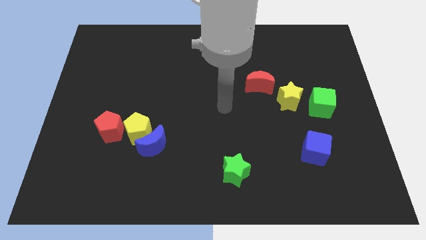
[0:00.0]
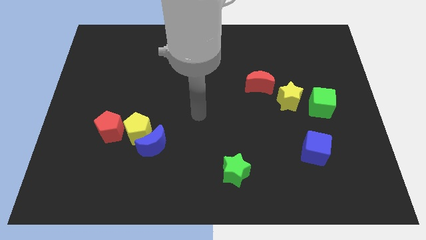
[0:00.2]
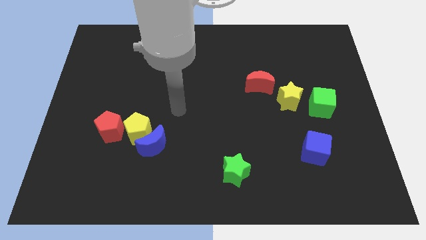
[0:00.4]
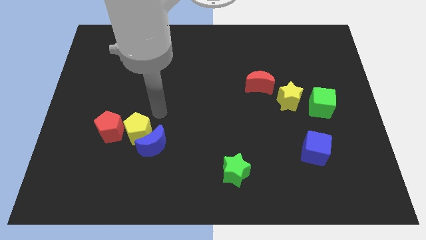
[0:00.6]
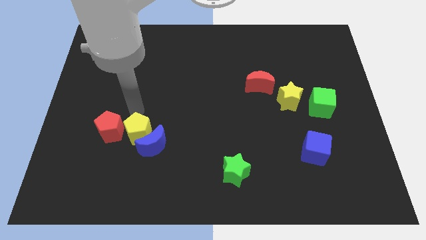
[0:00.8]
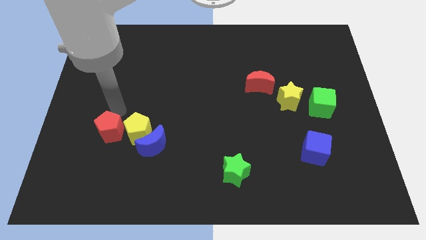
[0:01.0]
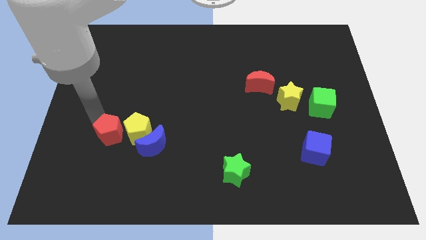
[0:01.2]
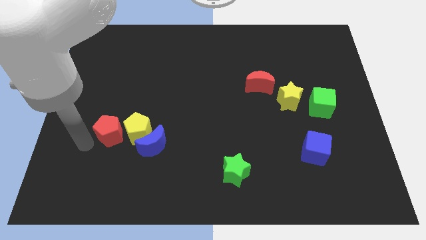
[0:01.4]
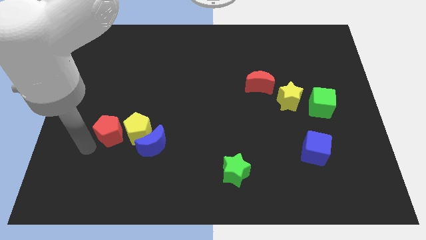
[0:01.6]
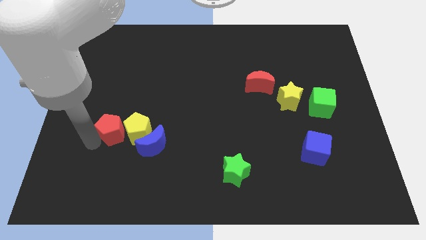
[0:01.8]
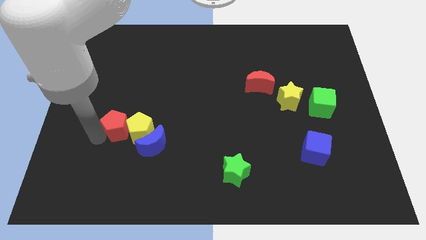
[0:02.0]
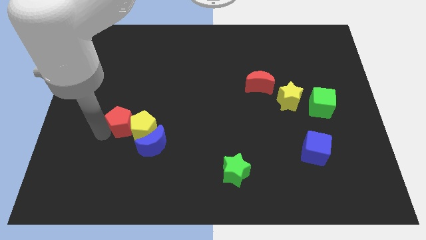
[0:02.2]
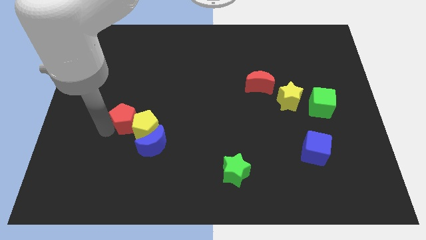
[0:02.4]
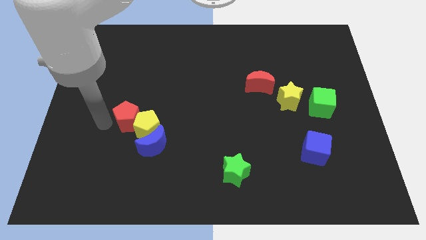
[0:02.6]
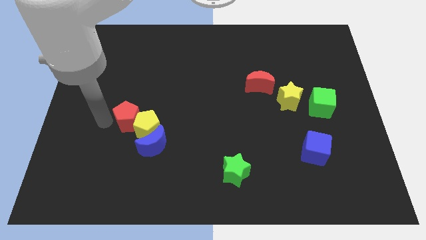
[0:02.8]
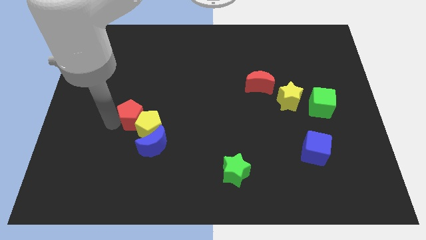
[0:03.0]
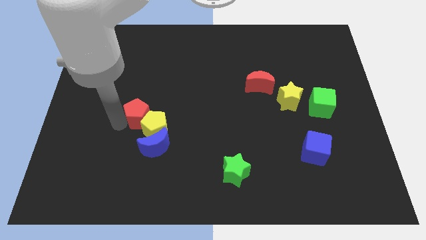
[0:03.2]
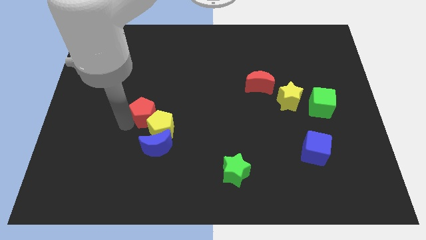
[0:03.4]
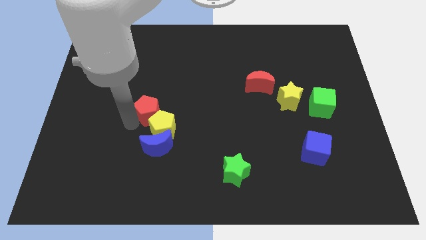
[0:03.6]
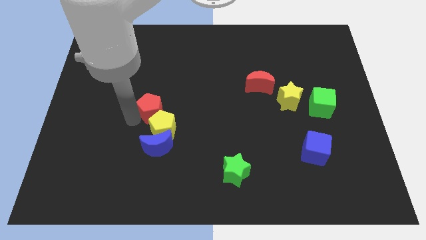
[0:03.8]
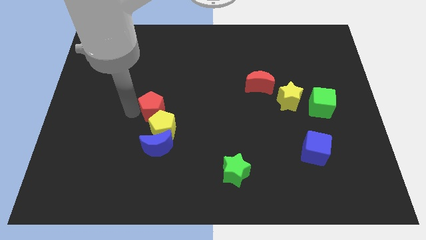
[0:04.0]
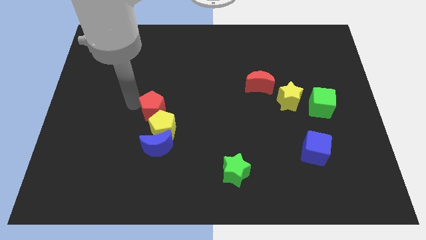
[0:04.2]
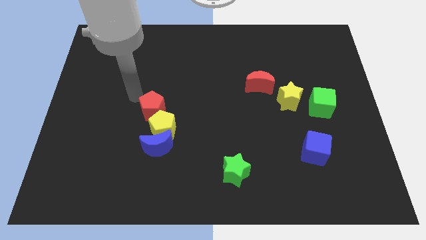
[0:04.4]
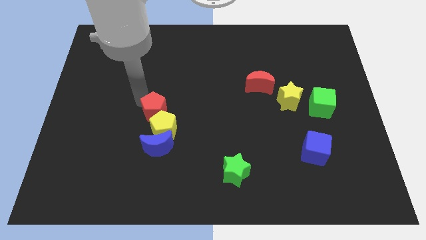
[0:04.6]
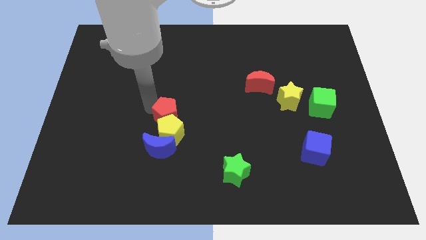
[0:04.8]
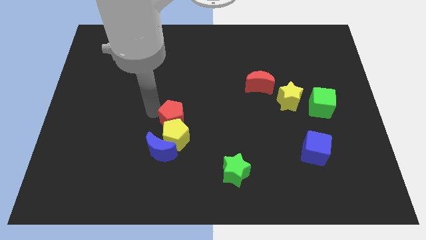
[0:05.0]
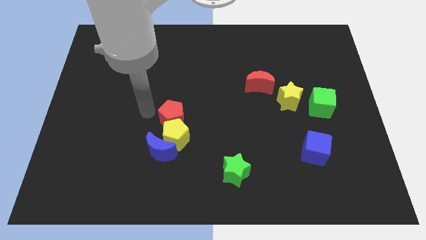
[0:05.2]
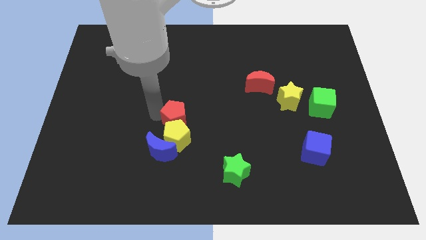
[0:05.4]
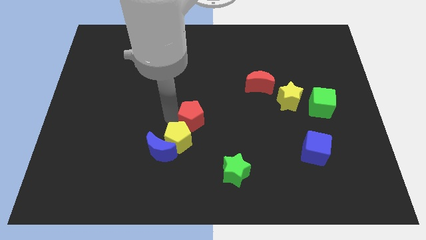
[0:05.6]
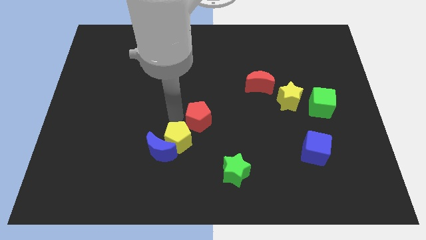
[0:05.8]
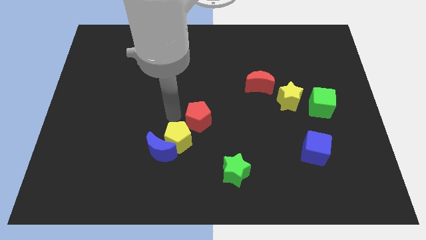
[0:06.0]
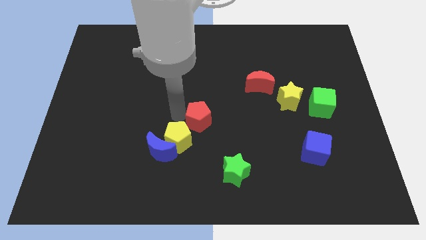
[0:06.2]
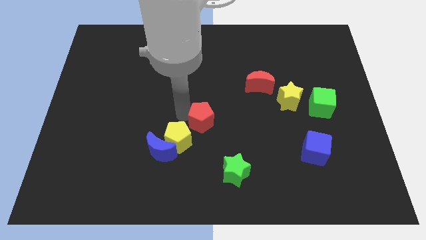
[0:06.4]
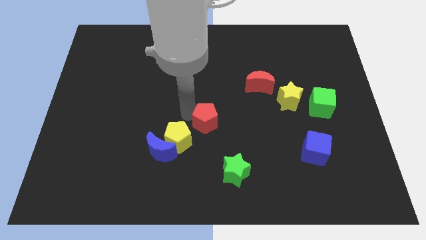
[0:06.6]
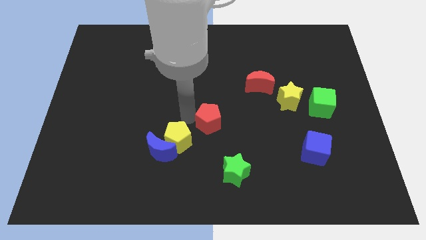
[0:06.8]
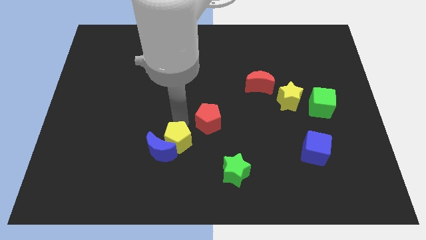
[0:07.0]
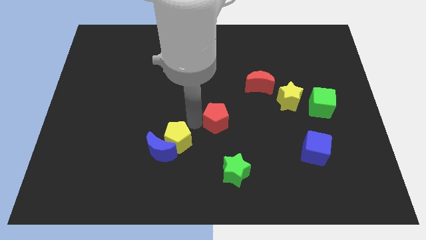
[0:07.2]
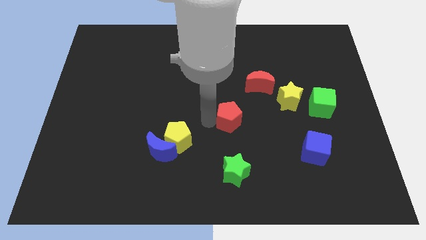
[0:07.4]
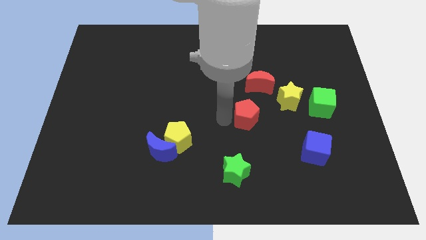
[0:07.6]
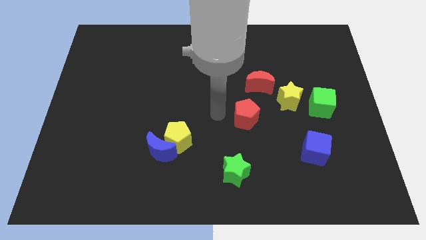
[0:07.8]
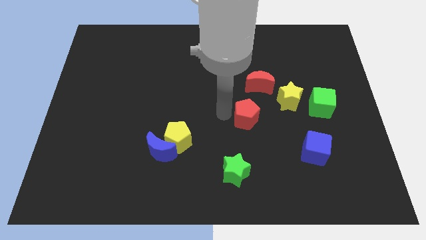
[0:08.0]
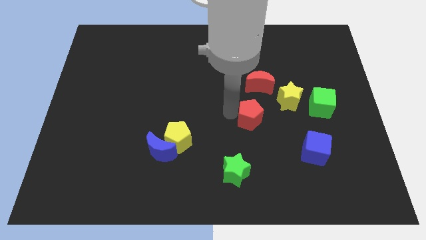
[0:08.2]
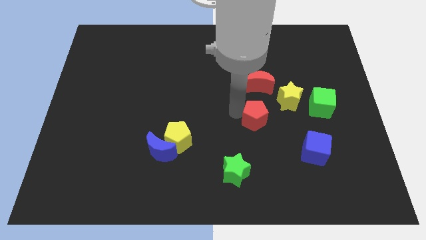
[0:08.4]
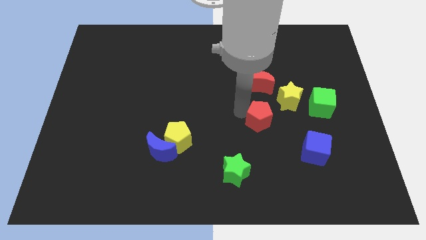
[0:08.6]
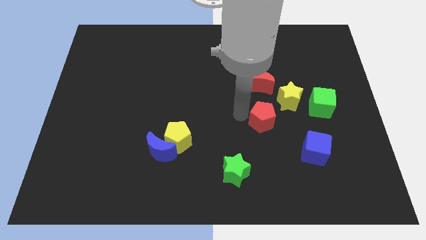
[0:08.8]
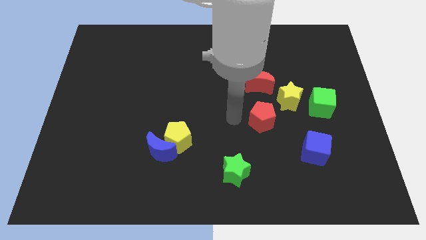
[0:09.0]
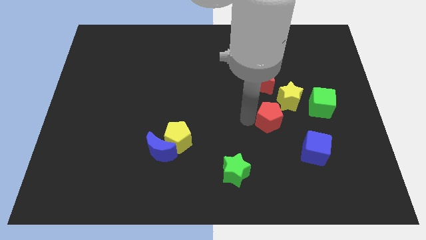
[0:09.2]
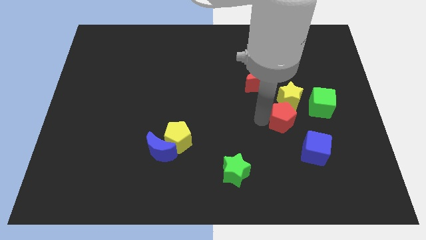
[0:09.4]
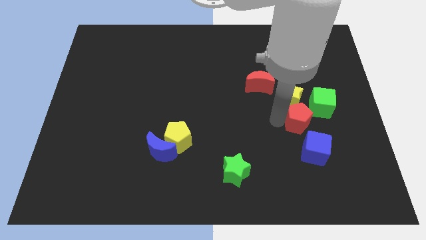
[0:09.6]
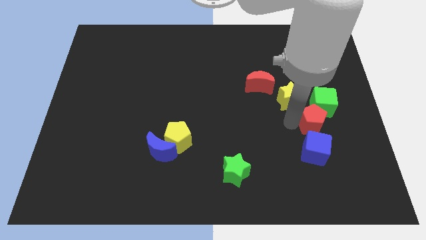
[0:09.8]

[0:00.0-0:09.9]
push the red pentagon to the green cube

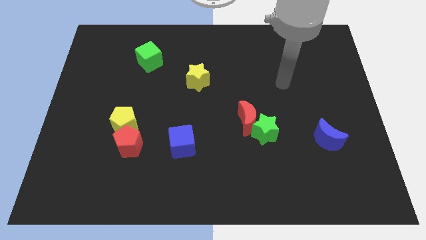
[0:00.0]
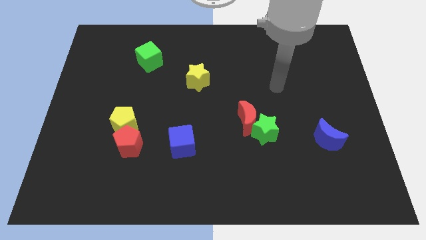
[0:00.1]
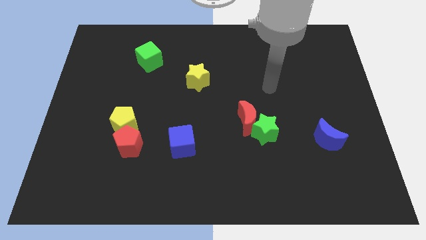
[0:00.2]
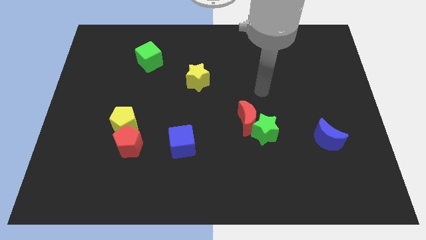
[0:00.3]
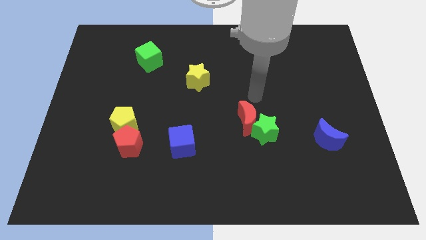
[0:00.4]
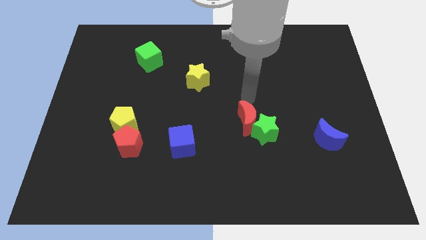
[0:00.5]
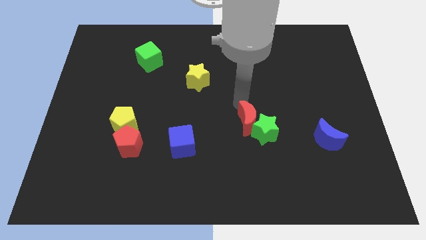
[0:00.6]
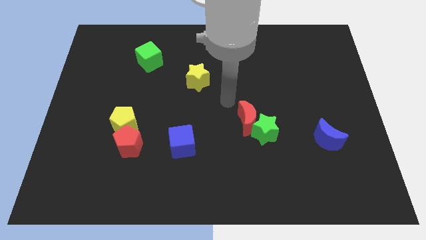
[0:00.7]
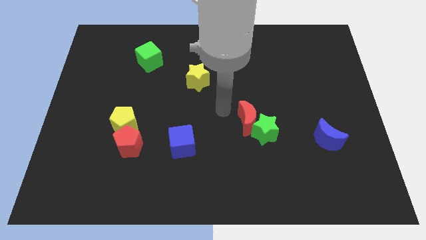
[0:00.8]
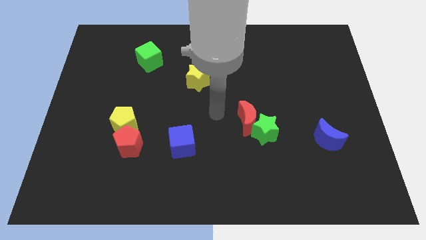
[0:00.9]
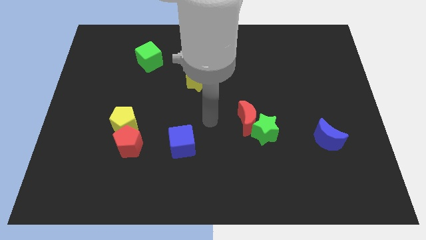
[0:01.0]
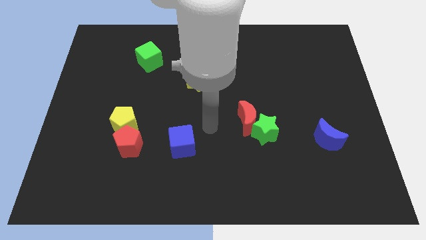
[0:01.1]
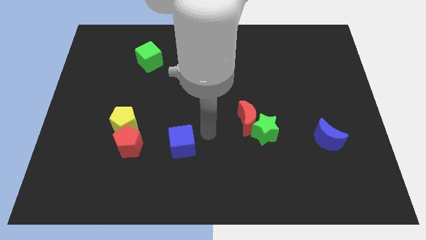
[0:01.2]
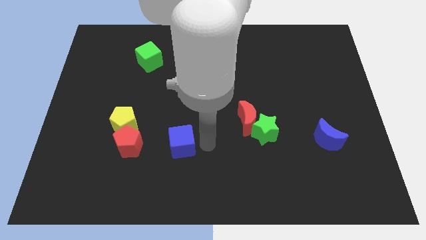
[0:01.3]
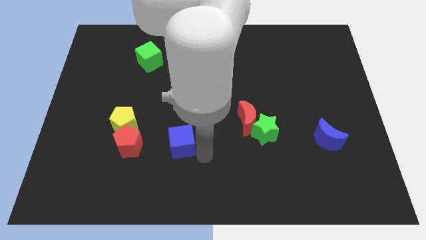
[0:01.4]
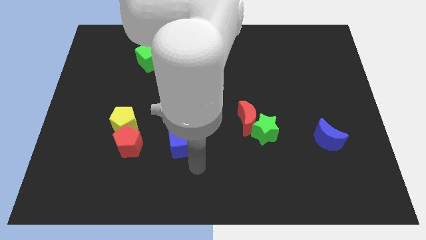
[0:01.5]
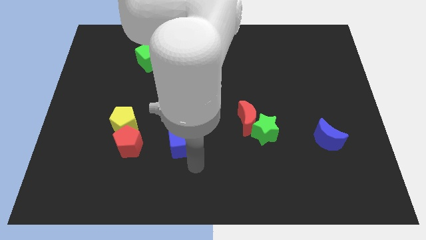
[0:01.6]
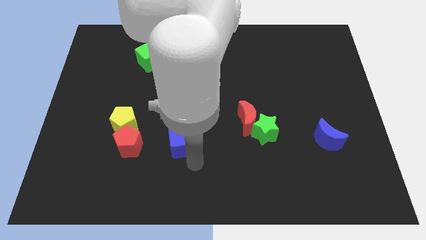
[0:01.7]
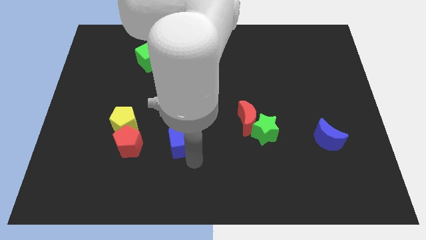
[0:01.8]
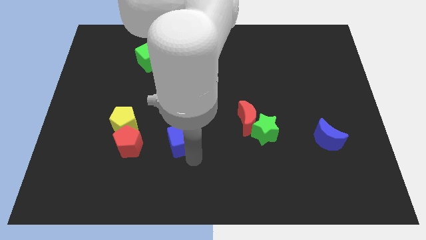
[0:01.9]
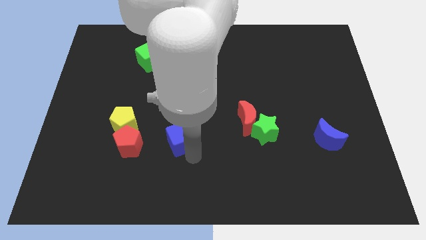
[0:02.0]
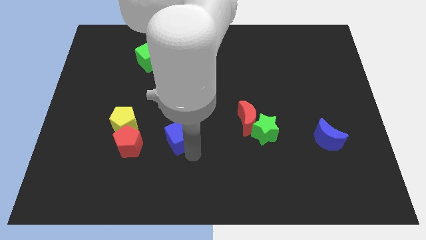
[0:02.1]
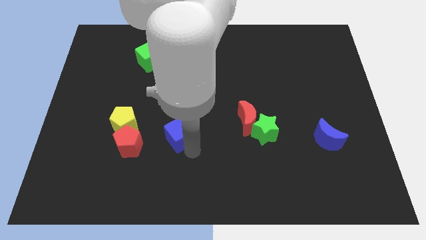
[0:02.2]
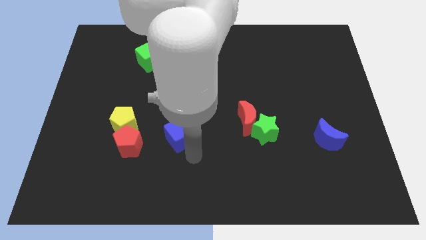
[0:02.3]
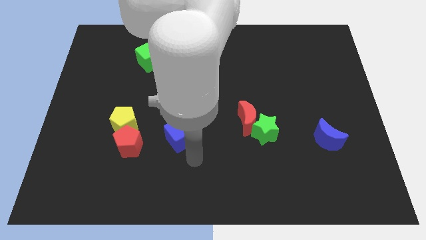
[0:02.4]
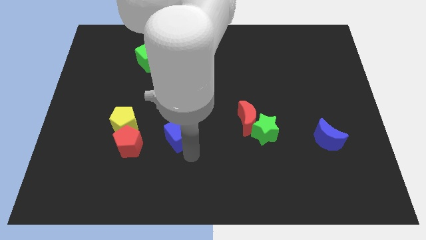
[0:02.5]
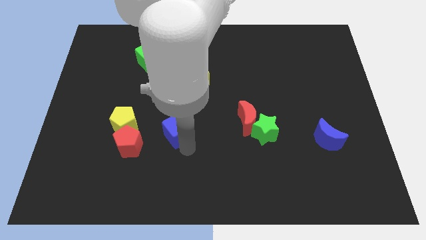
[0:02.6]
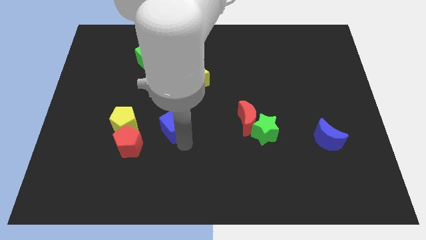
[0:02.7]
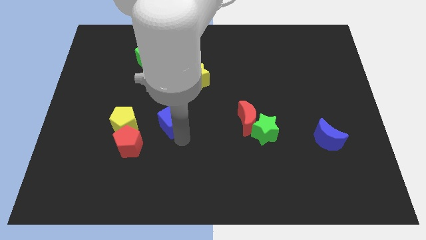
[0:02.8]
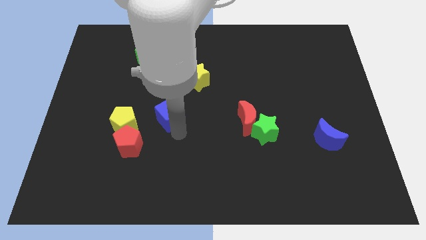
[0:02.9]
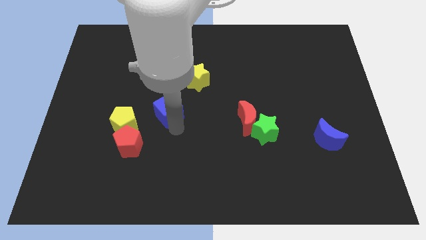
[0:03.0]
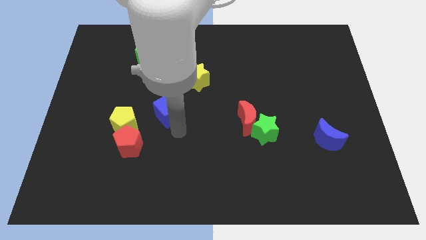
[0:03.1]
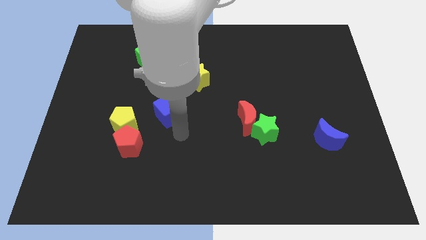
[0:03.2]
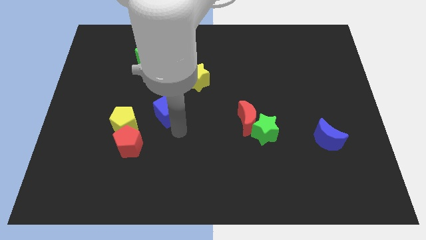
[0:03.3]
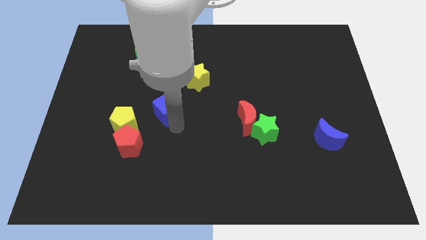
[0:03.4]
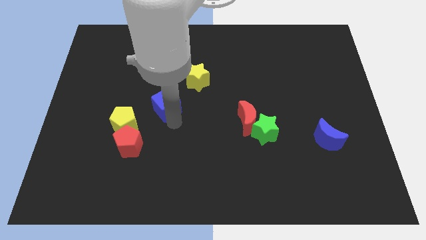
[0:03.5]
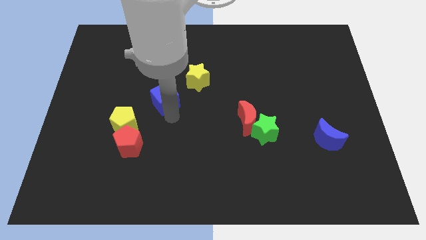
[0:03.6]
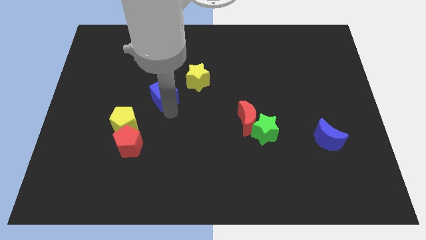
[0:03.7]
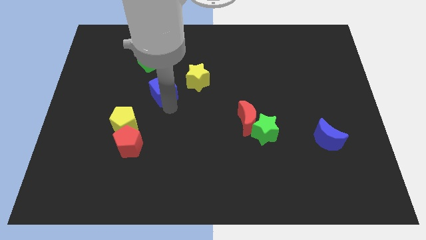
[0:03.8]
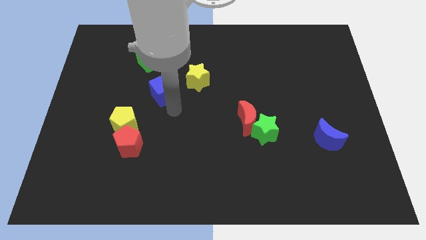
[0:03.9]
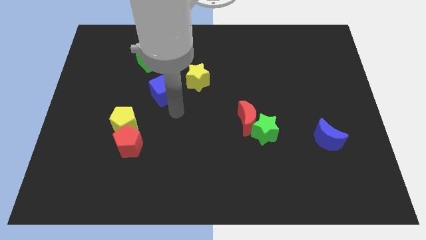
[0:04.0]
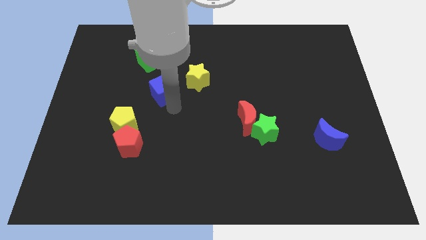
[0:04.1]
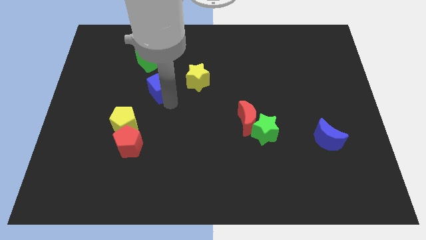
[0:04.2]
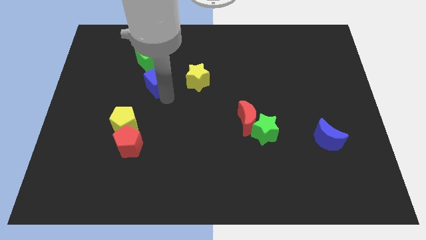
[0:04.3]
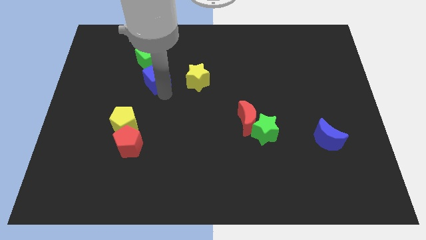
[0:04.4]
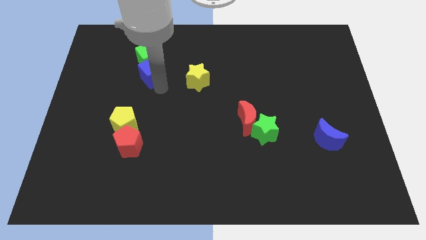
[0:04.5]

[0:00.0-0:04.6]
push the blue cube close to the green cube
